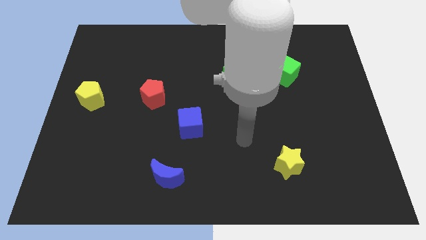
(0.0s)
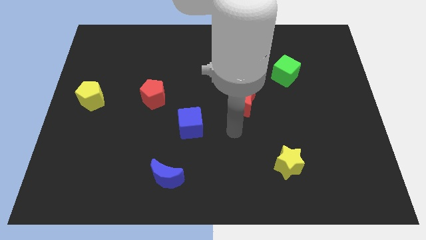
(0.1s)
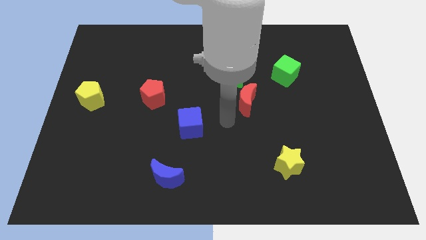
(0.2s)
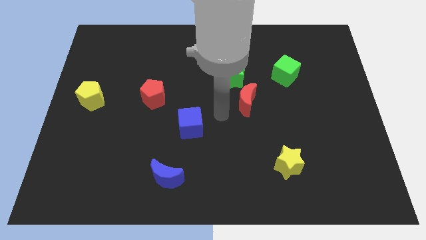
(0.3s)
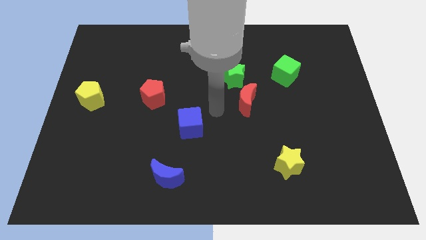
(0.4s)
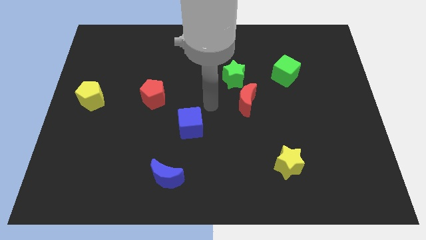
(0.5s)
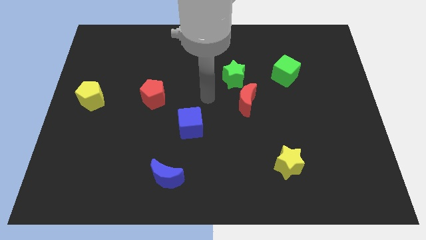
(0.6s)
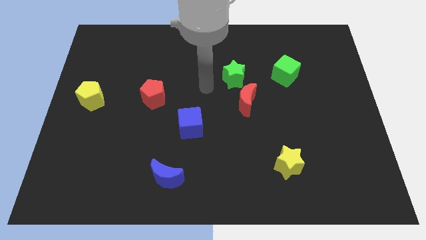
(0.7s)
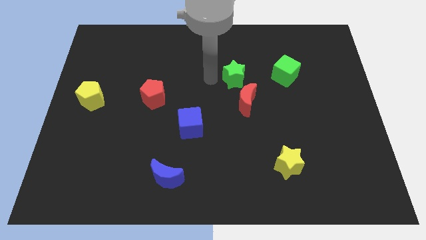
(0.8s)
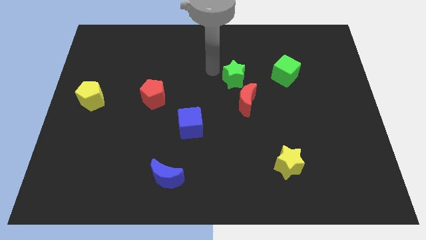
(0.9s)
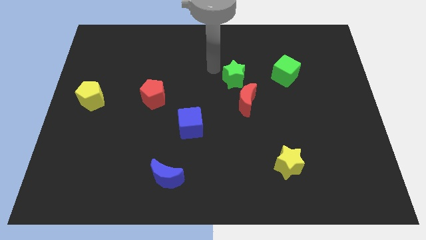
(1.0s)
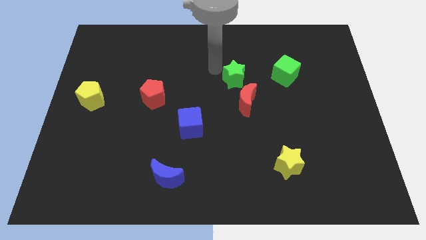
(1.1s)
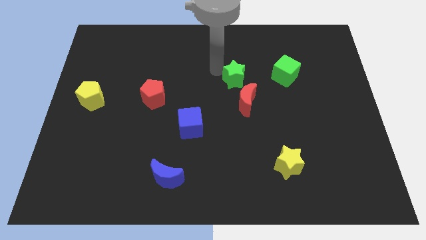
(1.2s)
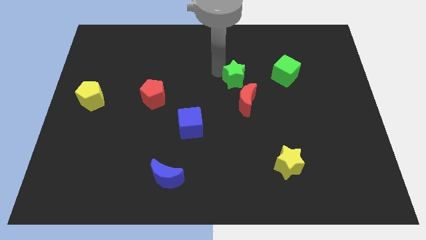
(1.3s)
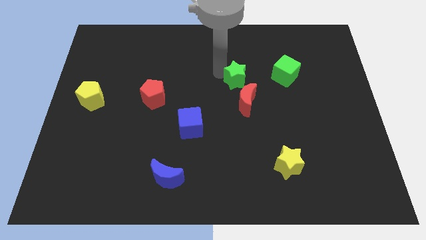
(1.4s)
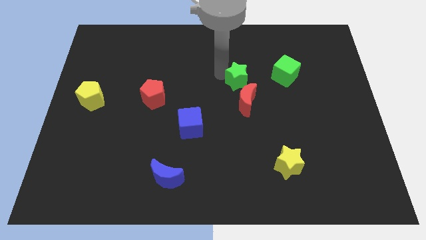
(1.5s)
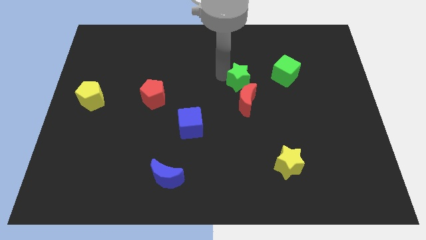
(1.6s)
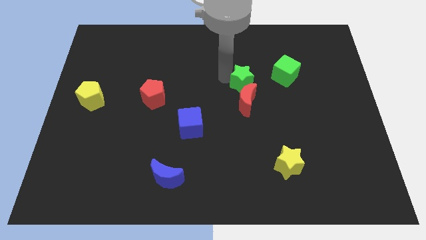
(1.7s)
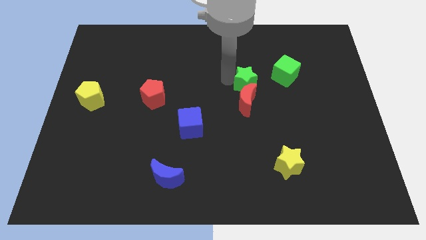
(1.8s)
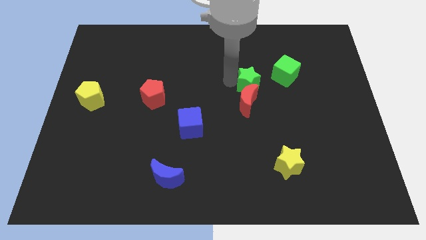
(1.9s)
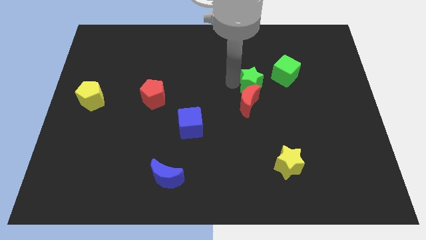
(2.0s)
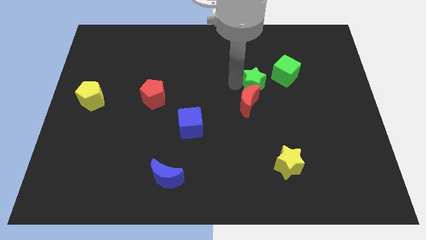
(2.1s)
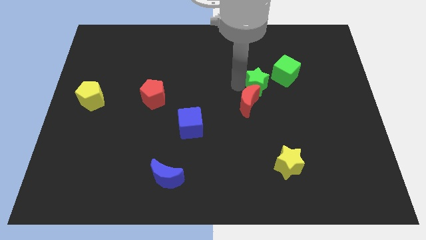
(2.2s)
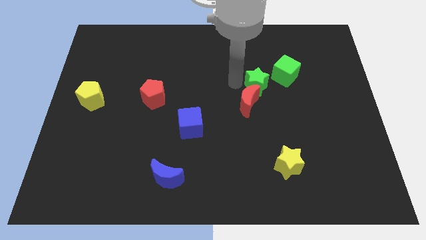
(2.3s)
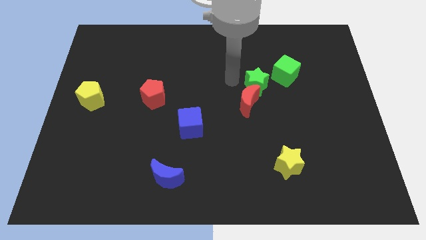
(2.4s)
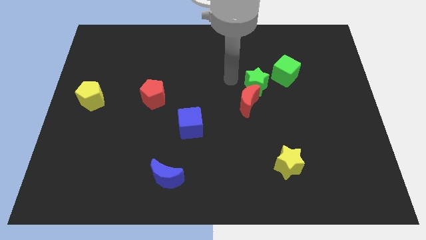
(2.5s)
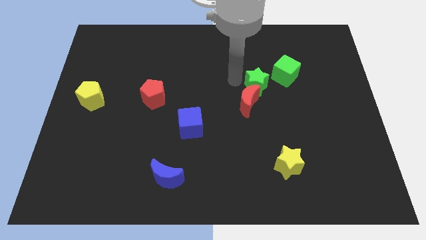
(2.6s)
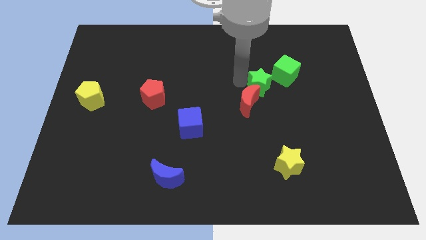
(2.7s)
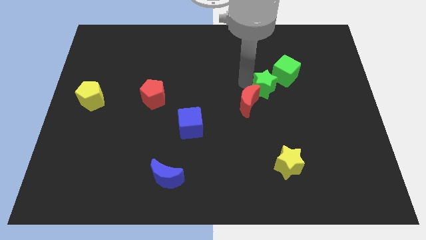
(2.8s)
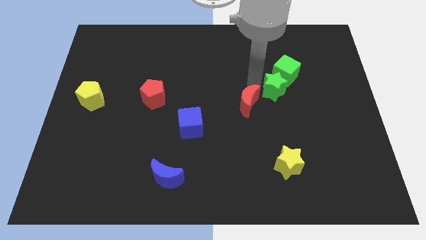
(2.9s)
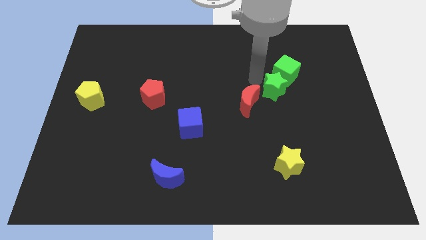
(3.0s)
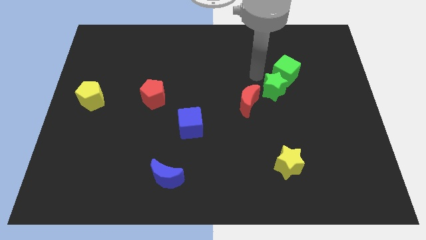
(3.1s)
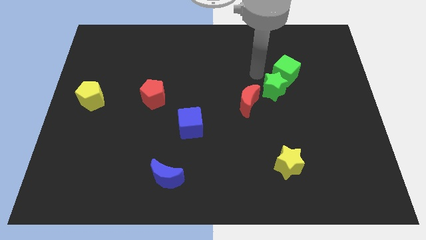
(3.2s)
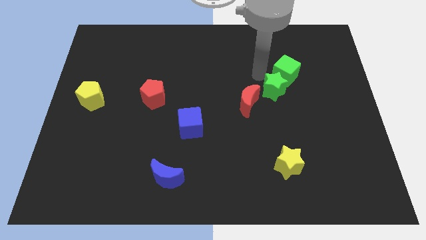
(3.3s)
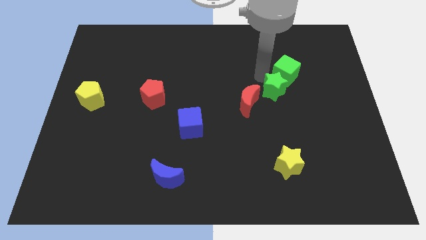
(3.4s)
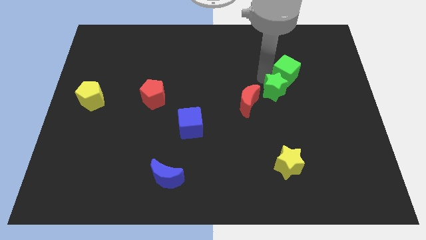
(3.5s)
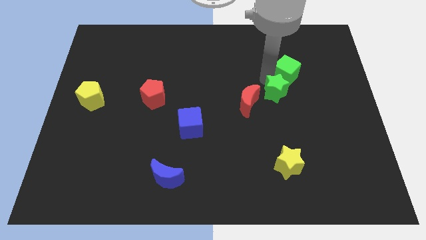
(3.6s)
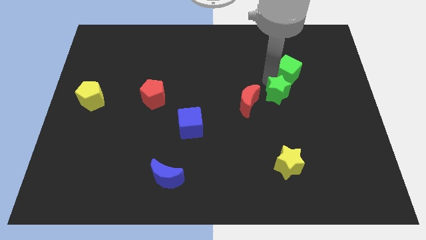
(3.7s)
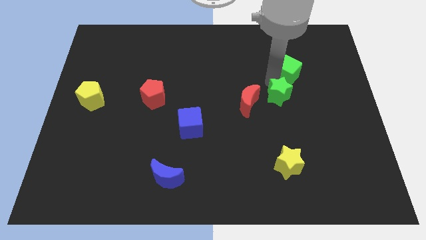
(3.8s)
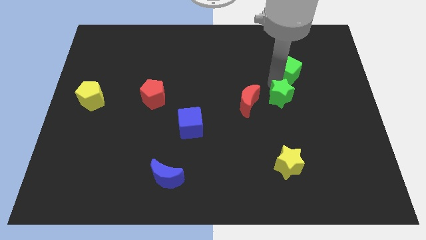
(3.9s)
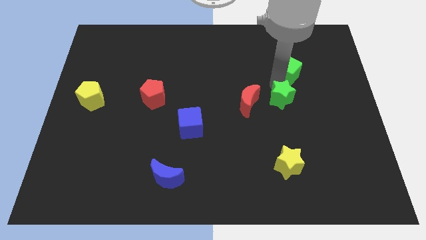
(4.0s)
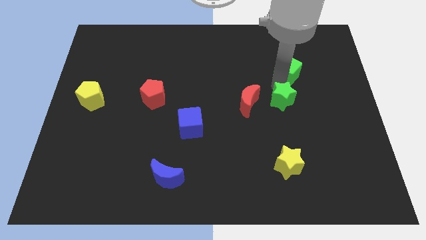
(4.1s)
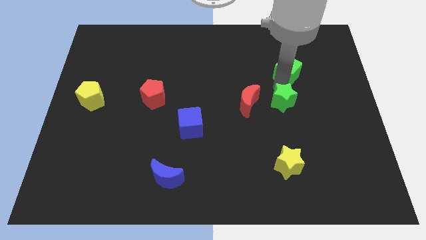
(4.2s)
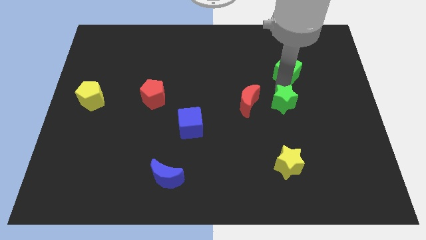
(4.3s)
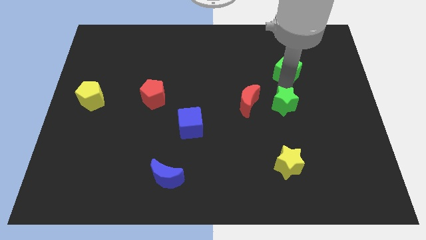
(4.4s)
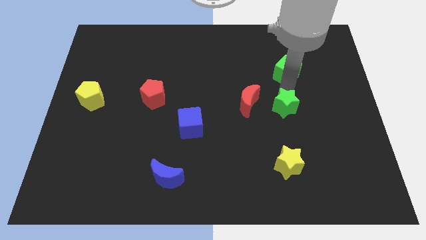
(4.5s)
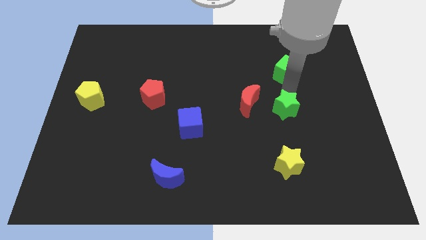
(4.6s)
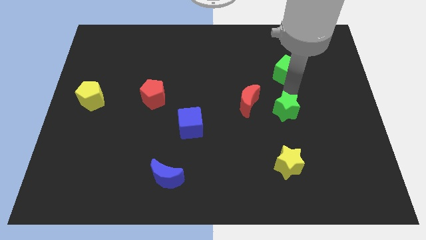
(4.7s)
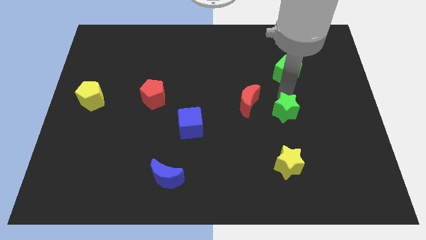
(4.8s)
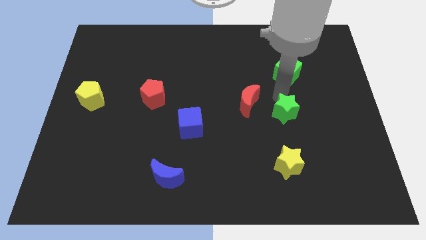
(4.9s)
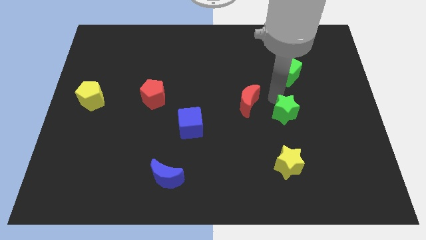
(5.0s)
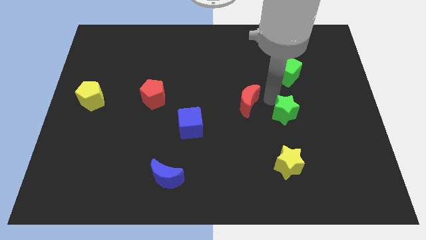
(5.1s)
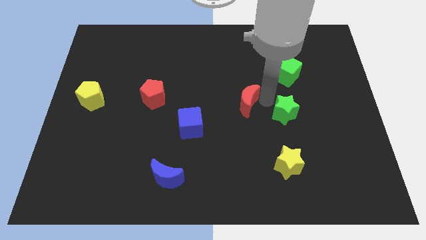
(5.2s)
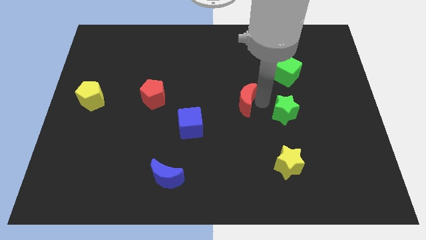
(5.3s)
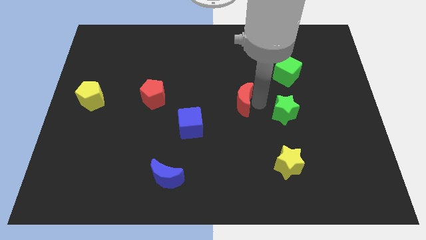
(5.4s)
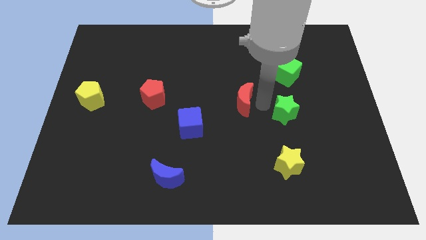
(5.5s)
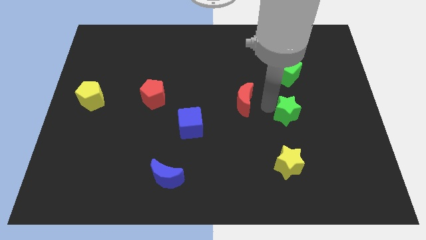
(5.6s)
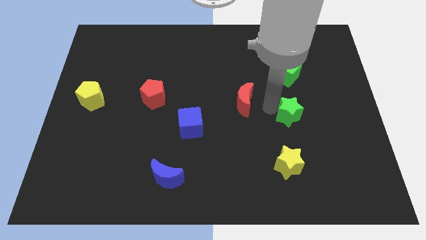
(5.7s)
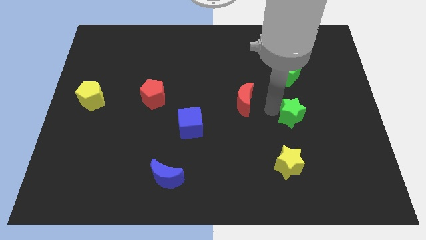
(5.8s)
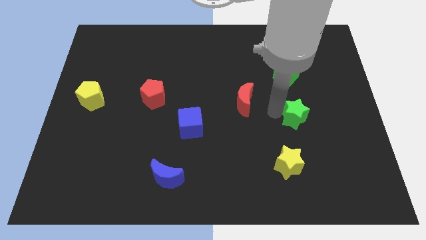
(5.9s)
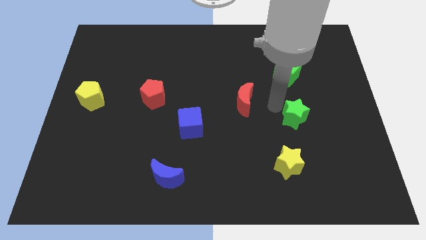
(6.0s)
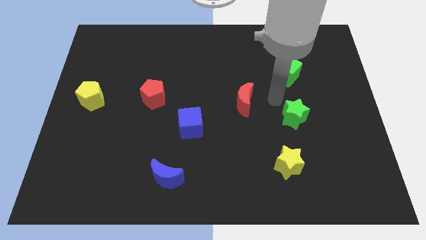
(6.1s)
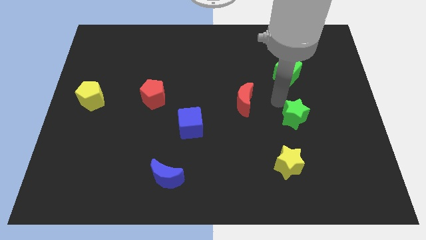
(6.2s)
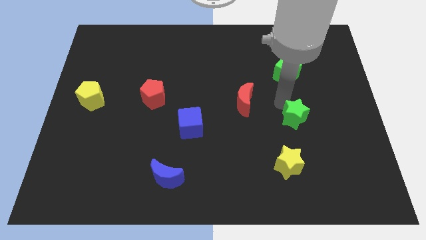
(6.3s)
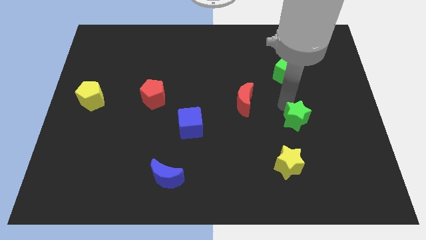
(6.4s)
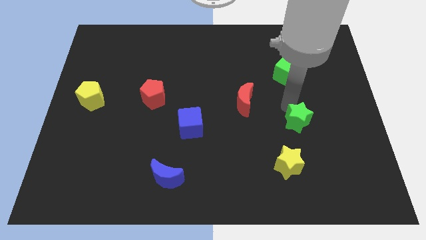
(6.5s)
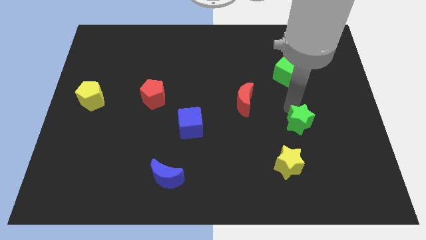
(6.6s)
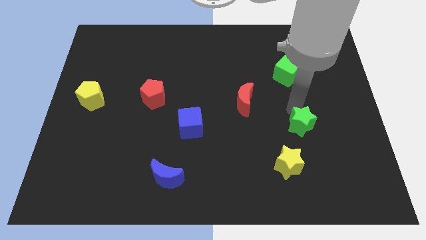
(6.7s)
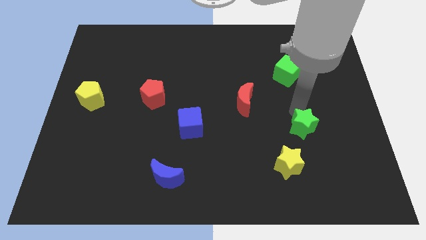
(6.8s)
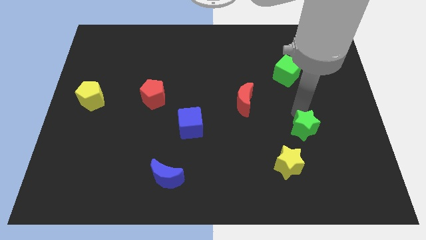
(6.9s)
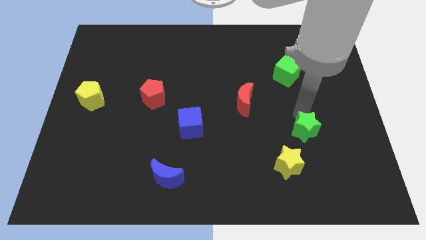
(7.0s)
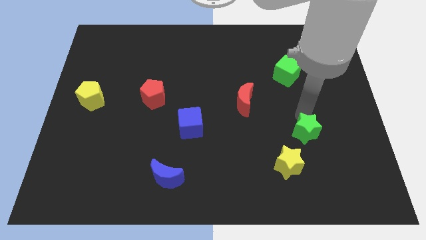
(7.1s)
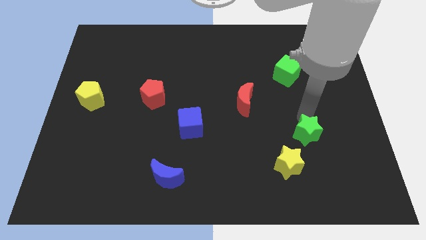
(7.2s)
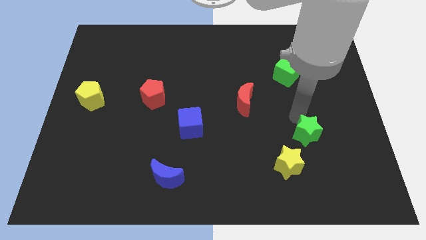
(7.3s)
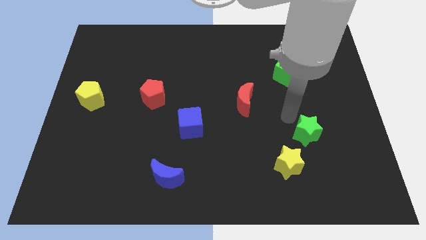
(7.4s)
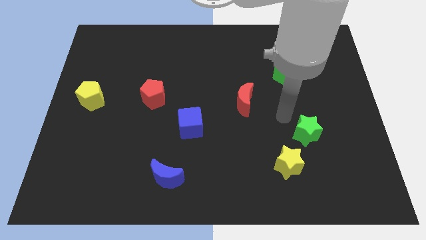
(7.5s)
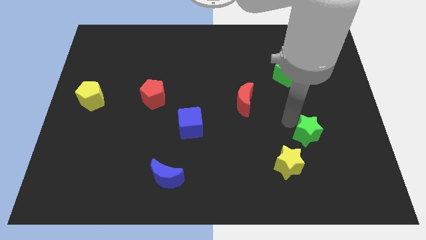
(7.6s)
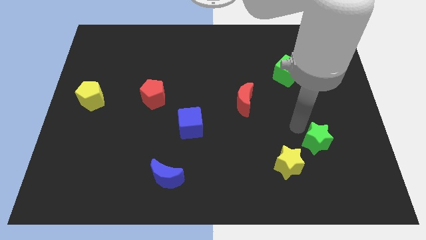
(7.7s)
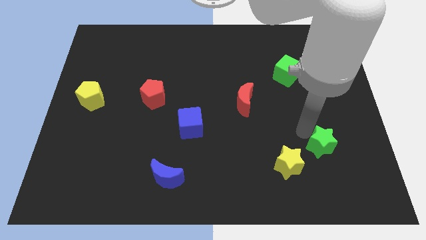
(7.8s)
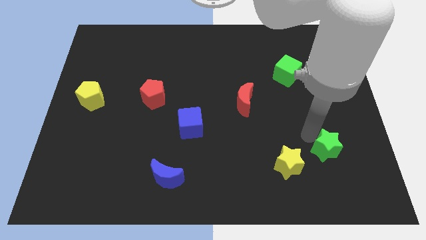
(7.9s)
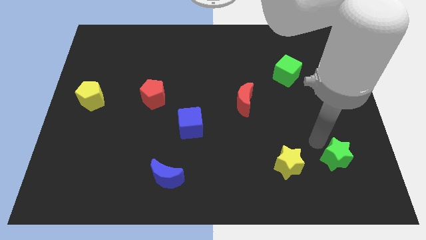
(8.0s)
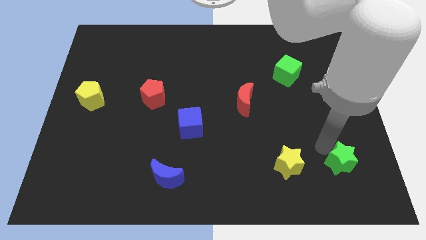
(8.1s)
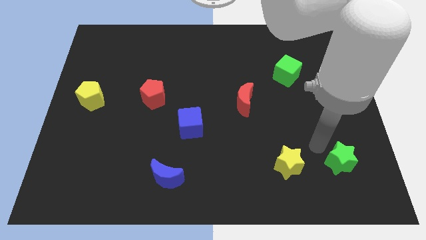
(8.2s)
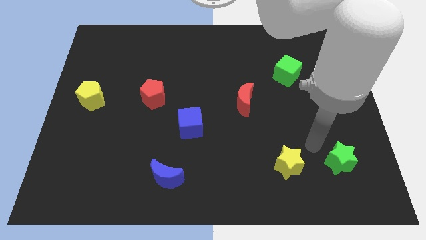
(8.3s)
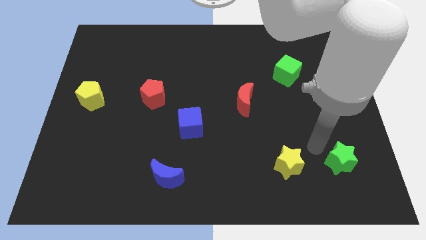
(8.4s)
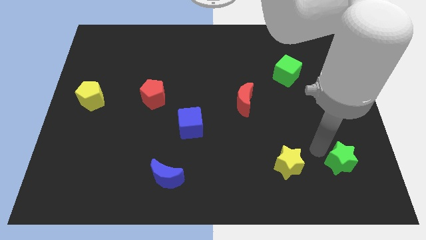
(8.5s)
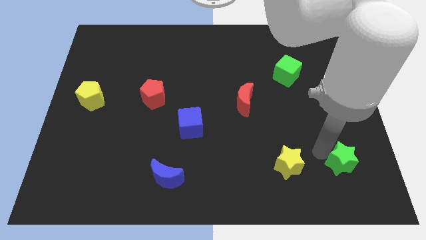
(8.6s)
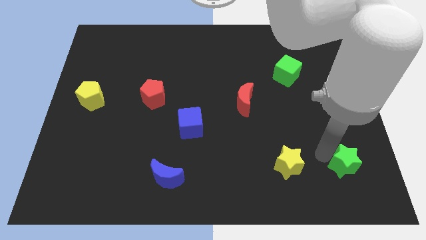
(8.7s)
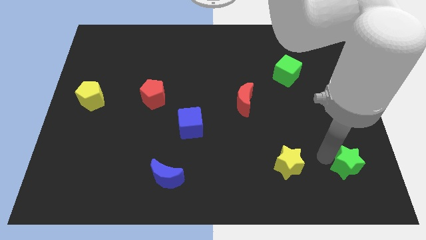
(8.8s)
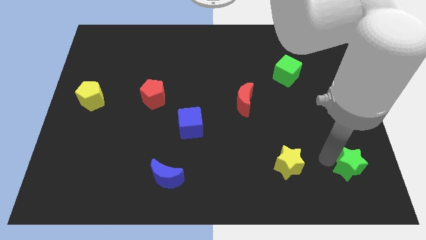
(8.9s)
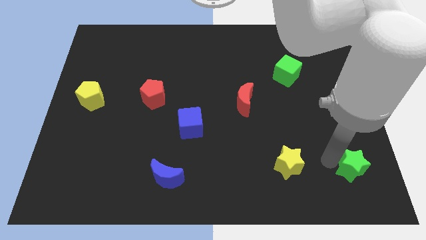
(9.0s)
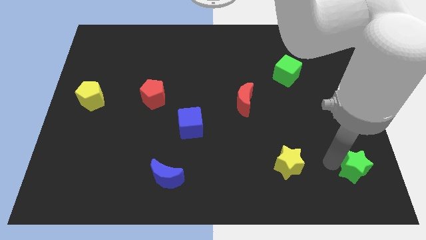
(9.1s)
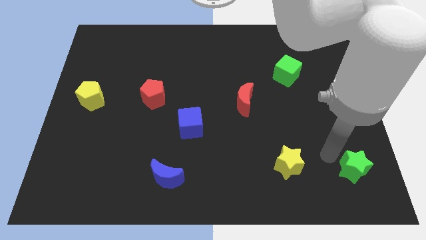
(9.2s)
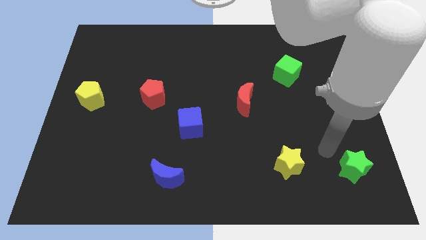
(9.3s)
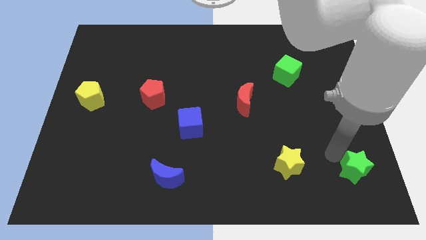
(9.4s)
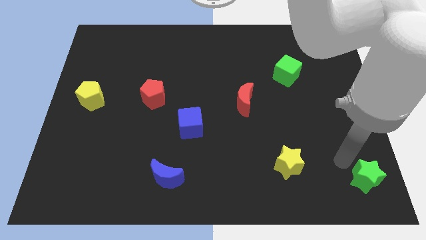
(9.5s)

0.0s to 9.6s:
put the green star to the bottom right of the board
